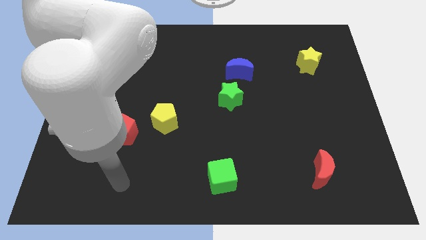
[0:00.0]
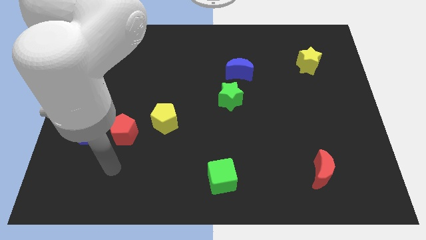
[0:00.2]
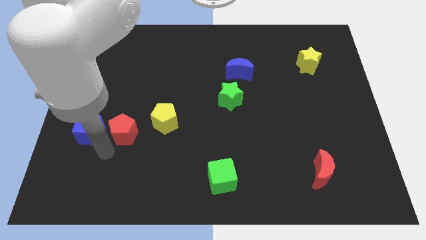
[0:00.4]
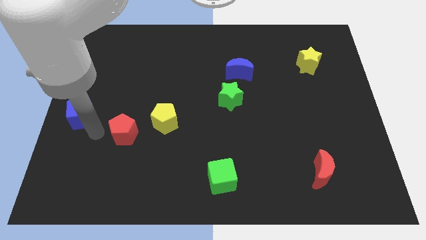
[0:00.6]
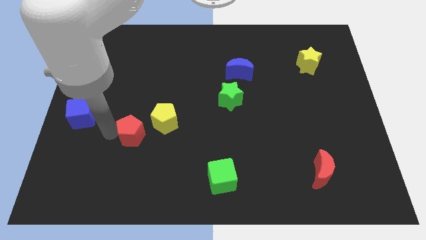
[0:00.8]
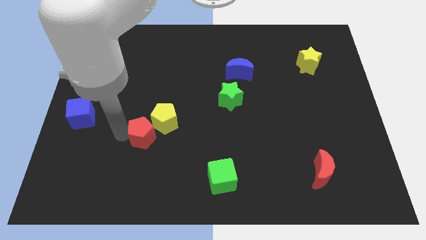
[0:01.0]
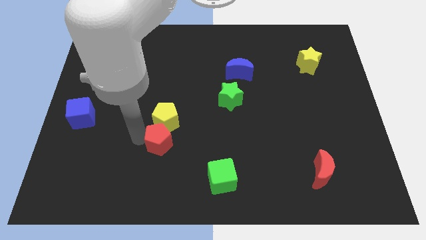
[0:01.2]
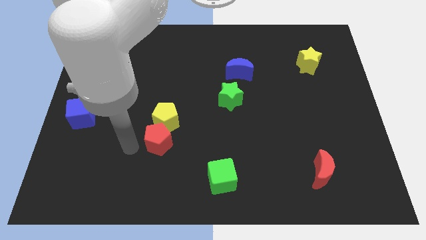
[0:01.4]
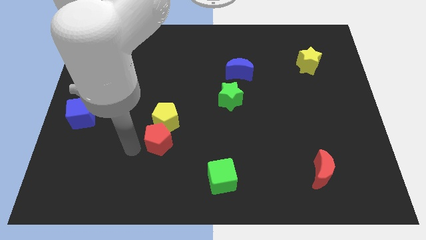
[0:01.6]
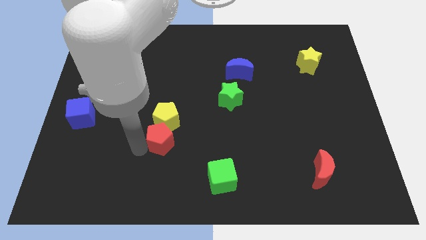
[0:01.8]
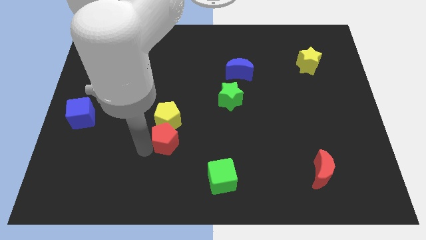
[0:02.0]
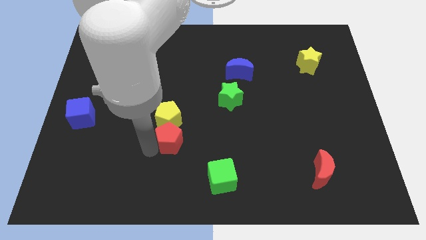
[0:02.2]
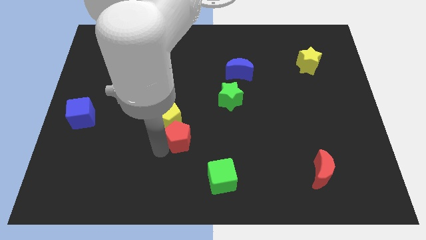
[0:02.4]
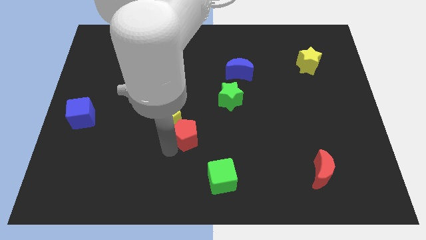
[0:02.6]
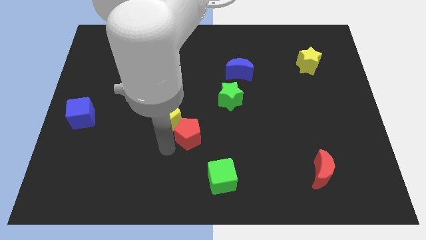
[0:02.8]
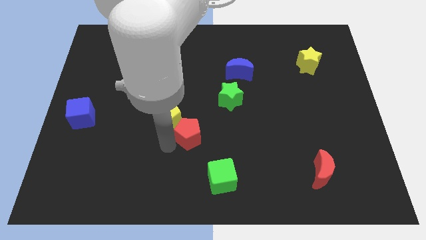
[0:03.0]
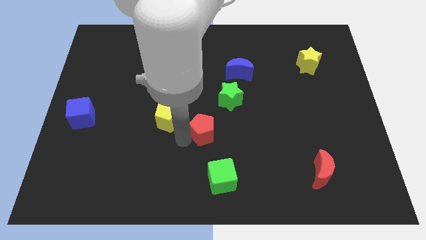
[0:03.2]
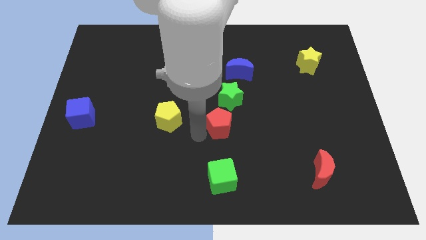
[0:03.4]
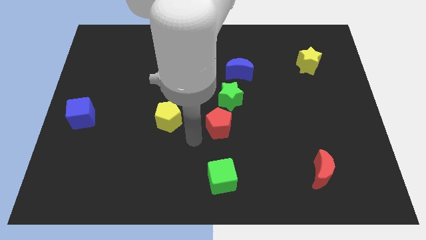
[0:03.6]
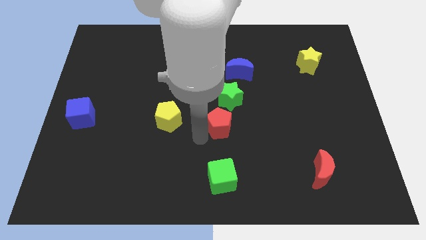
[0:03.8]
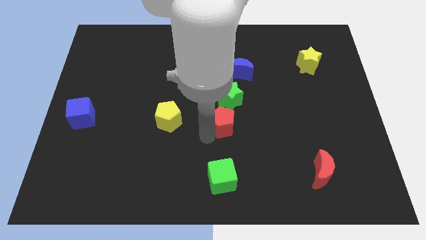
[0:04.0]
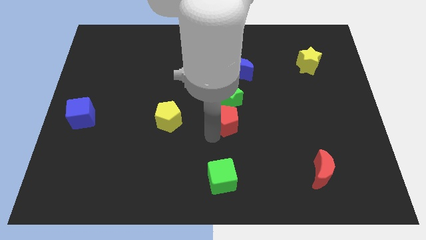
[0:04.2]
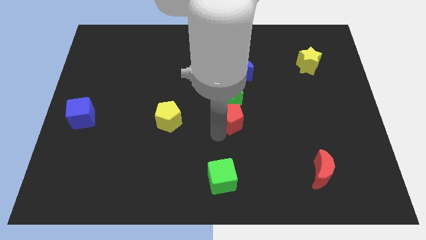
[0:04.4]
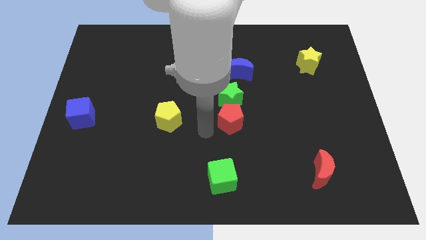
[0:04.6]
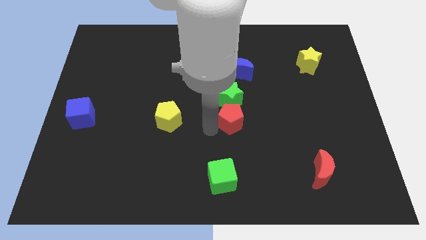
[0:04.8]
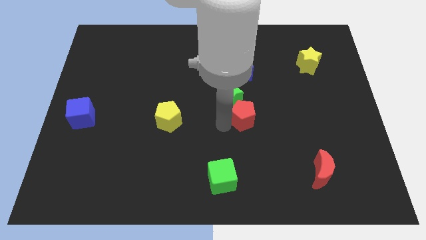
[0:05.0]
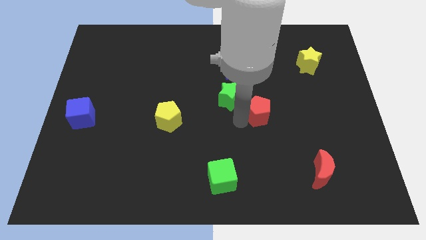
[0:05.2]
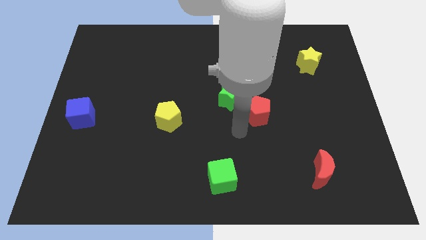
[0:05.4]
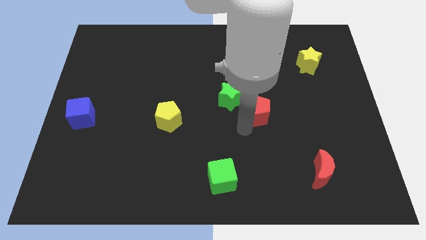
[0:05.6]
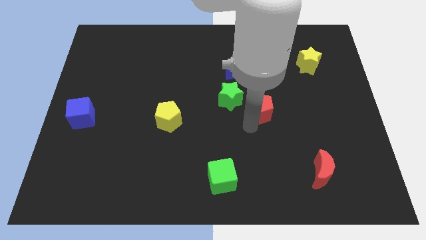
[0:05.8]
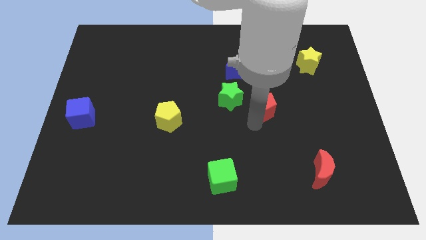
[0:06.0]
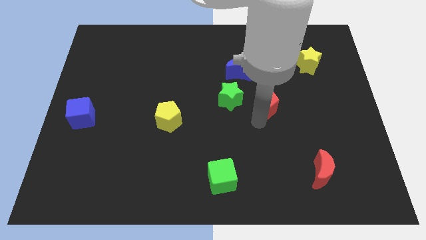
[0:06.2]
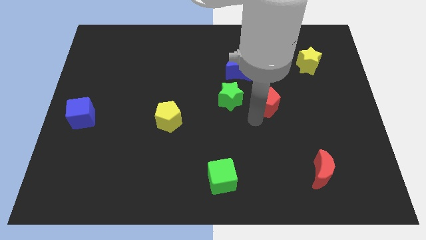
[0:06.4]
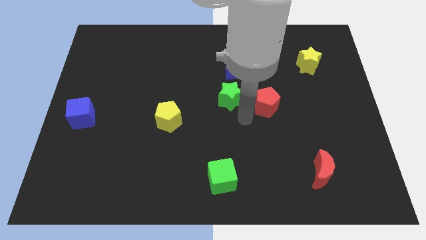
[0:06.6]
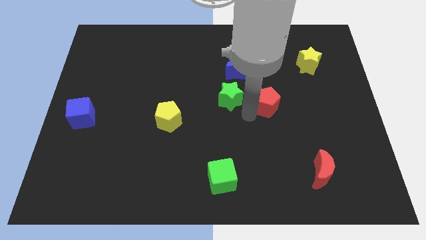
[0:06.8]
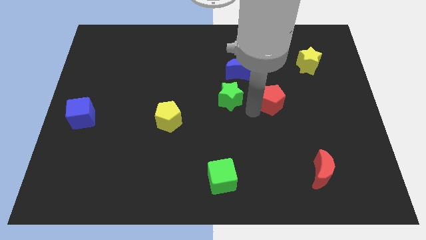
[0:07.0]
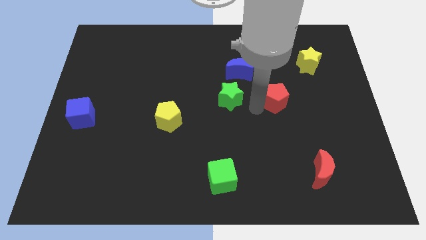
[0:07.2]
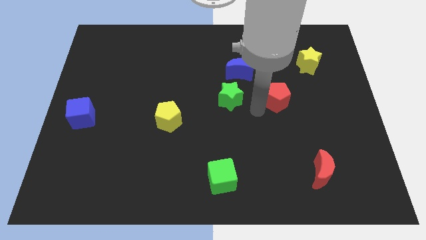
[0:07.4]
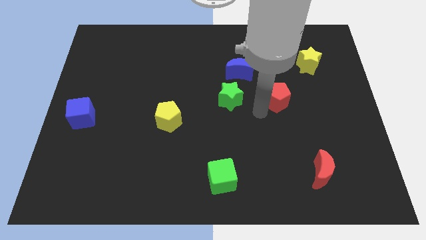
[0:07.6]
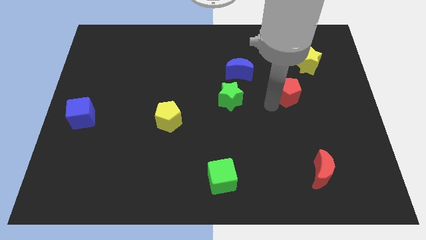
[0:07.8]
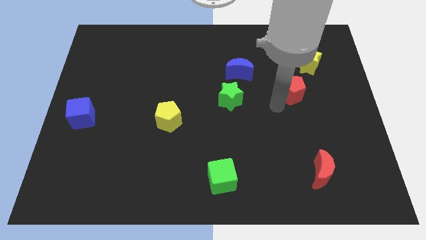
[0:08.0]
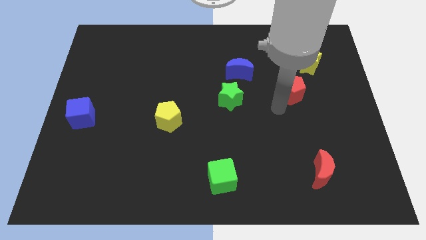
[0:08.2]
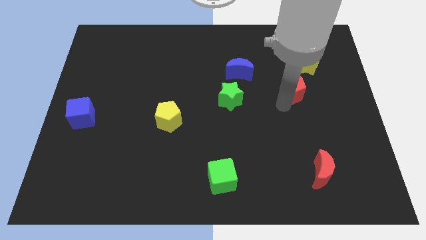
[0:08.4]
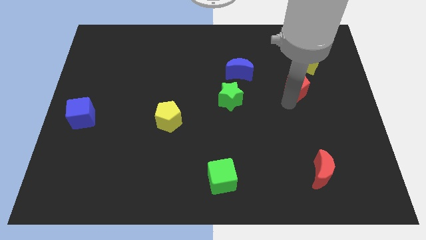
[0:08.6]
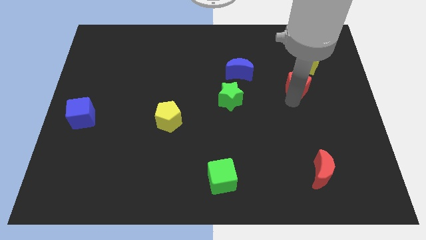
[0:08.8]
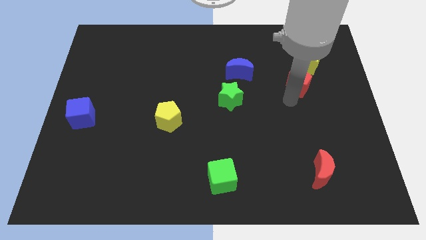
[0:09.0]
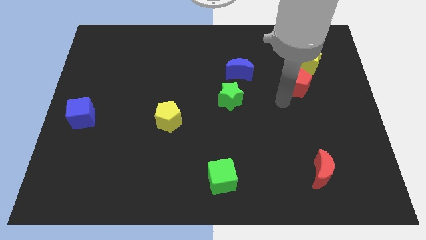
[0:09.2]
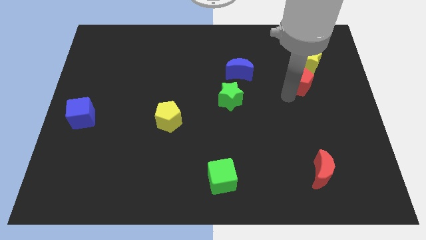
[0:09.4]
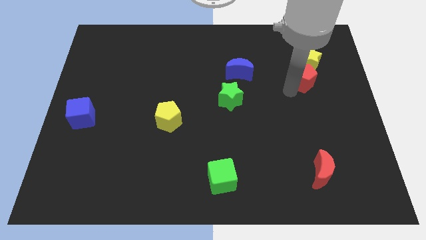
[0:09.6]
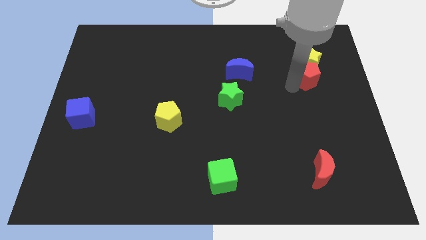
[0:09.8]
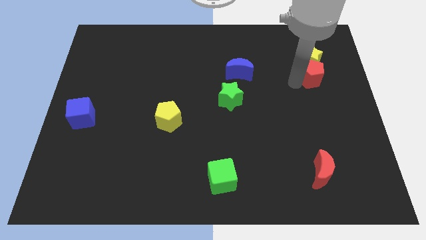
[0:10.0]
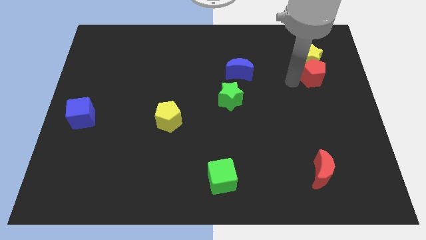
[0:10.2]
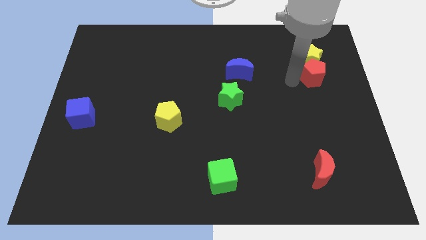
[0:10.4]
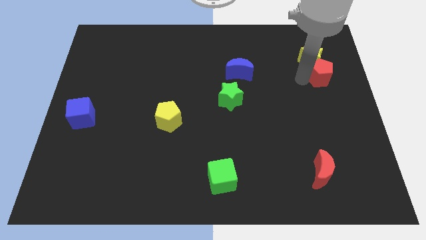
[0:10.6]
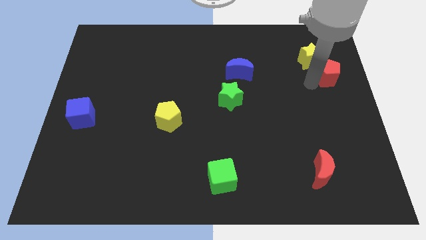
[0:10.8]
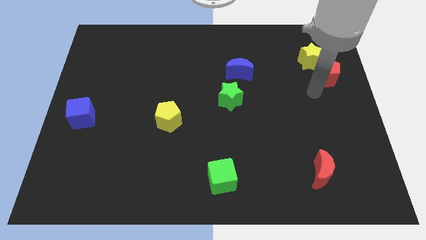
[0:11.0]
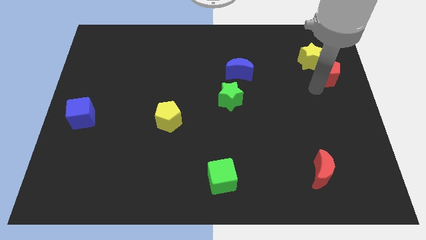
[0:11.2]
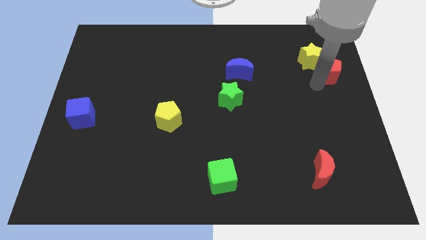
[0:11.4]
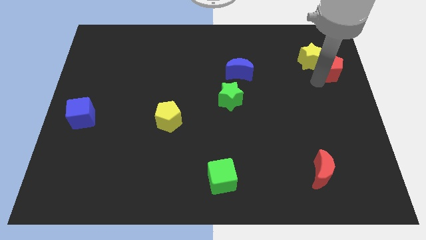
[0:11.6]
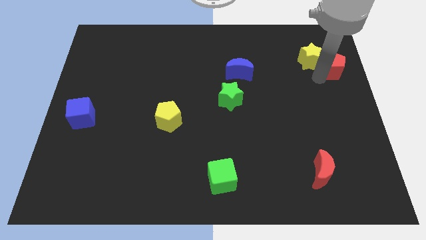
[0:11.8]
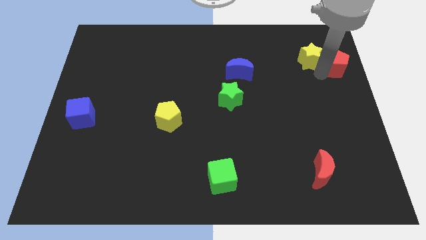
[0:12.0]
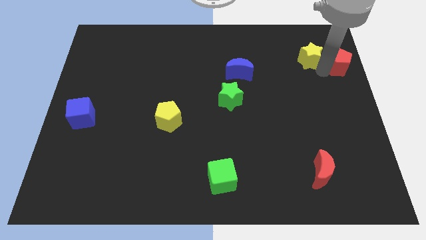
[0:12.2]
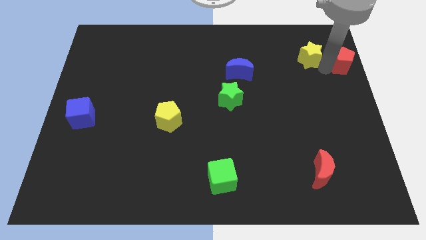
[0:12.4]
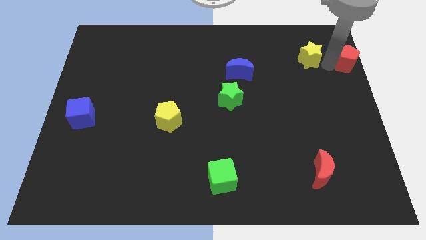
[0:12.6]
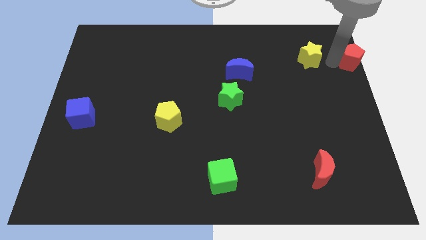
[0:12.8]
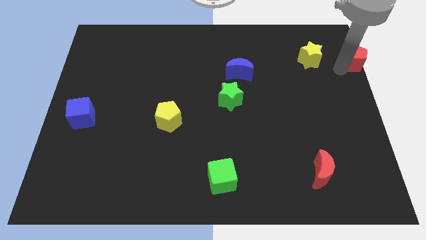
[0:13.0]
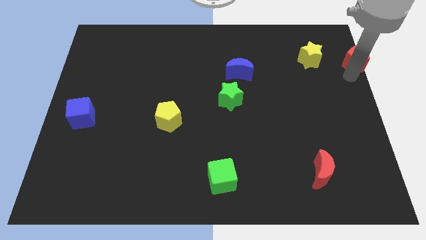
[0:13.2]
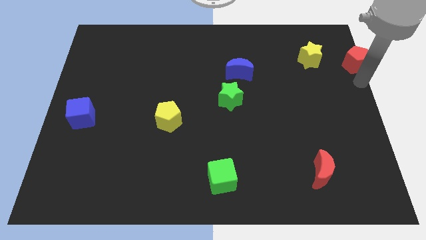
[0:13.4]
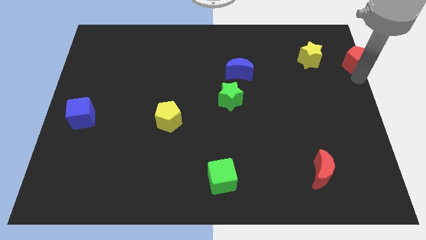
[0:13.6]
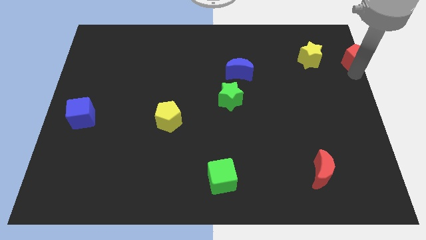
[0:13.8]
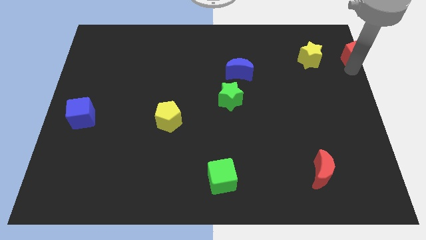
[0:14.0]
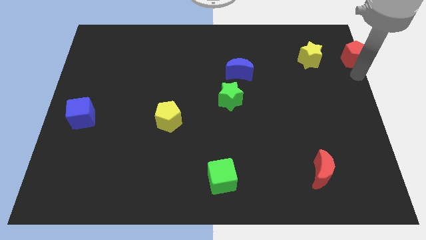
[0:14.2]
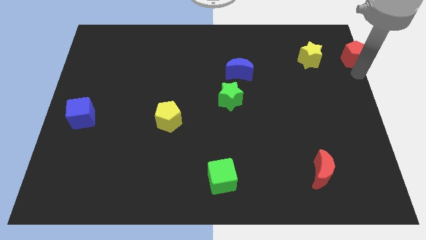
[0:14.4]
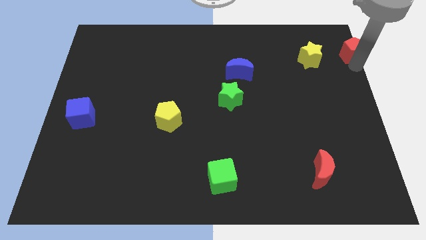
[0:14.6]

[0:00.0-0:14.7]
put the red pentagon to the top right
